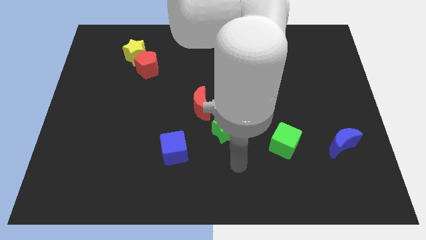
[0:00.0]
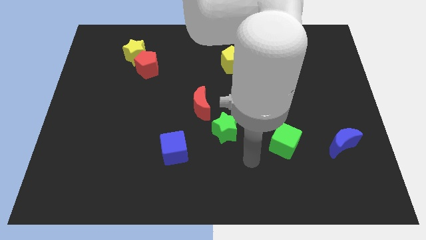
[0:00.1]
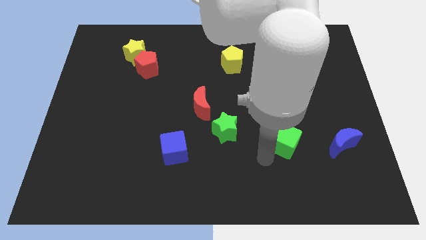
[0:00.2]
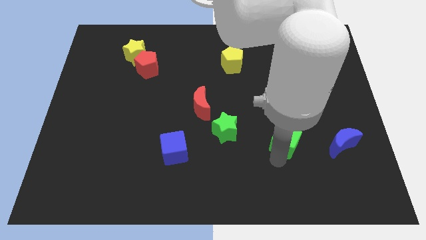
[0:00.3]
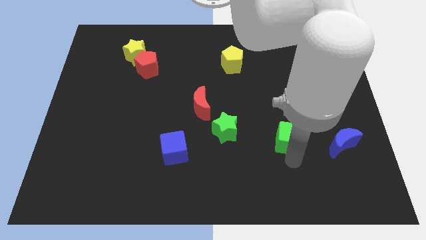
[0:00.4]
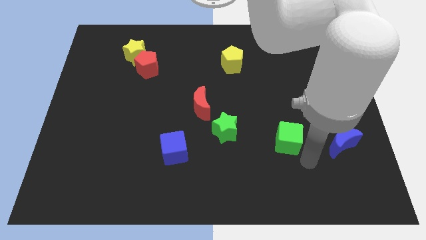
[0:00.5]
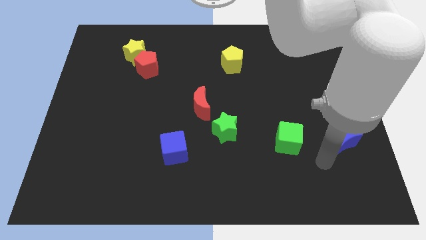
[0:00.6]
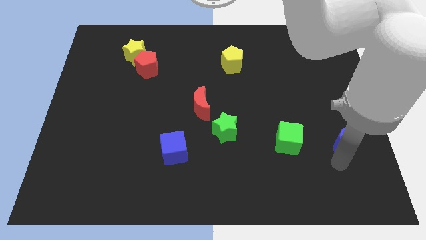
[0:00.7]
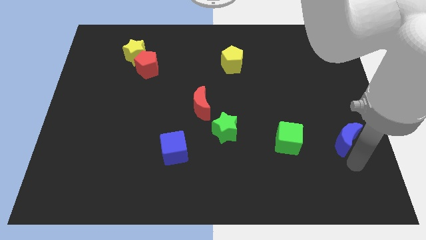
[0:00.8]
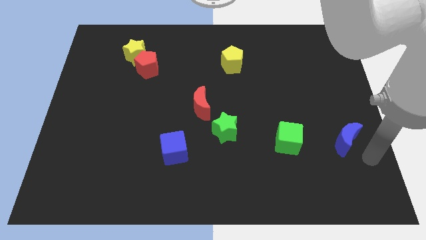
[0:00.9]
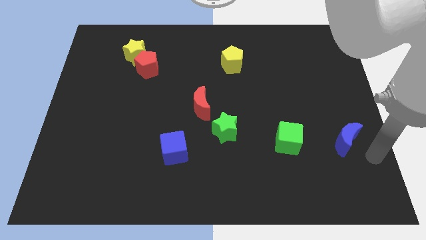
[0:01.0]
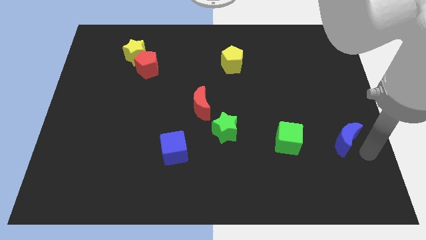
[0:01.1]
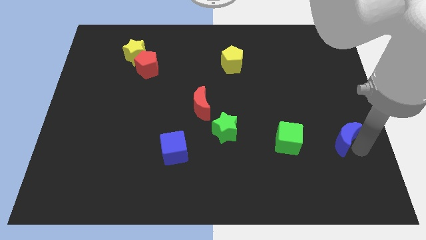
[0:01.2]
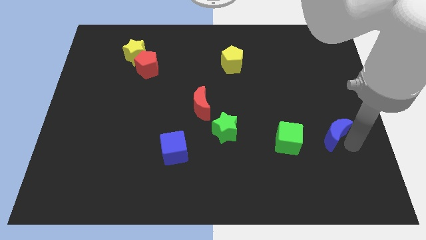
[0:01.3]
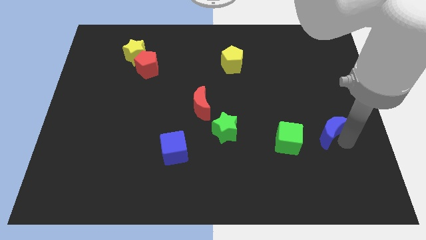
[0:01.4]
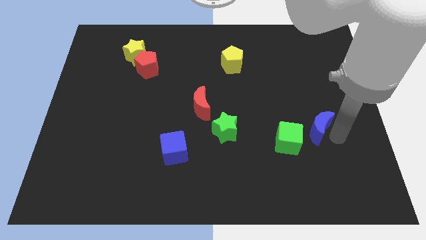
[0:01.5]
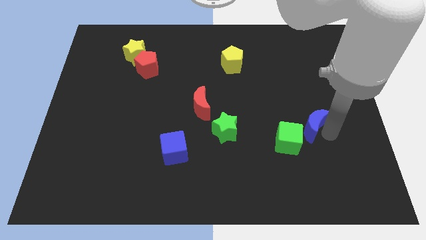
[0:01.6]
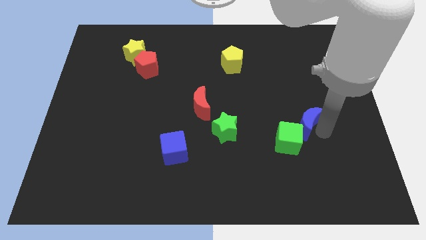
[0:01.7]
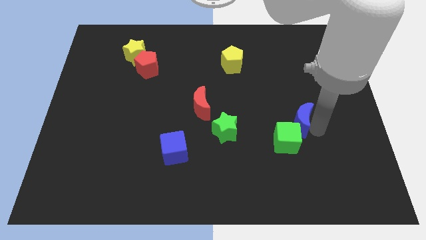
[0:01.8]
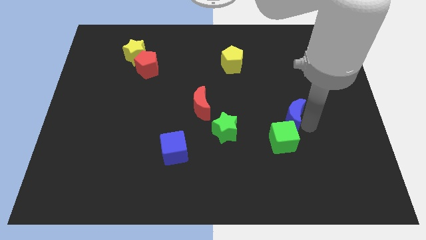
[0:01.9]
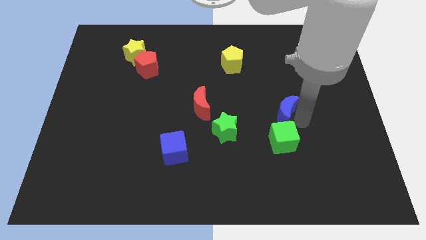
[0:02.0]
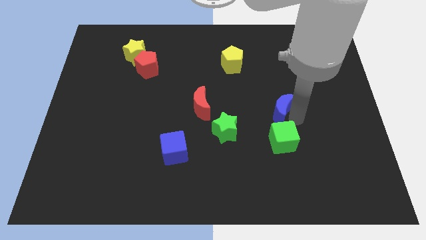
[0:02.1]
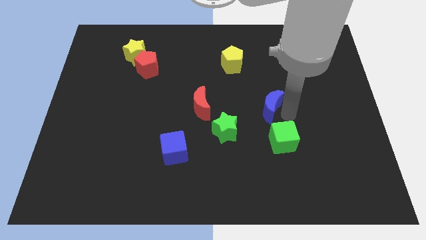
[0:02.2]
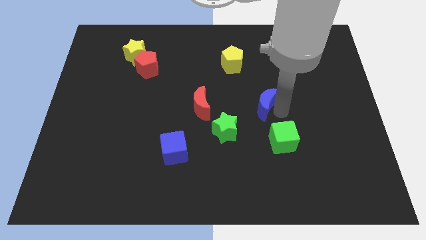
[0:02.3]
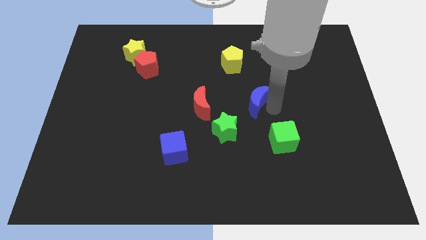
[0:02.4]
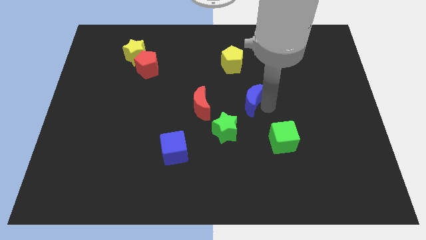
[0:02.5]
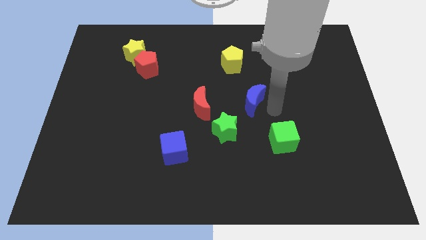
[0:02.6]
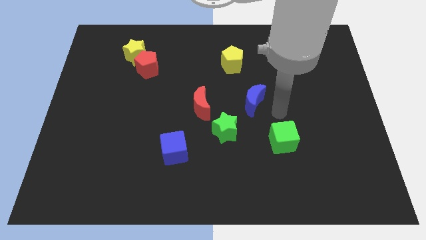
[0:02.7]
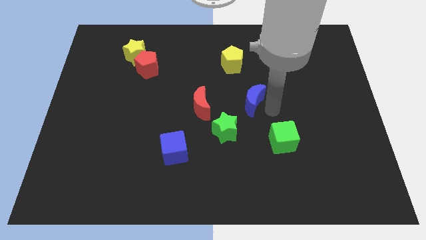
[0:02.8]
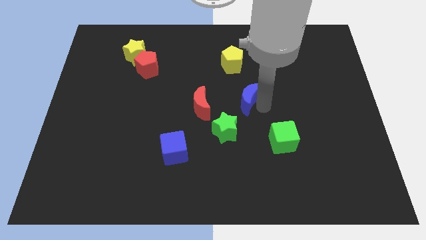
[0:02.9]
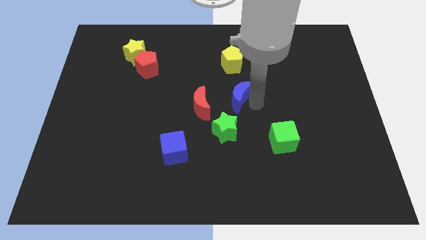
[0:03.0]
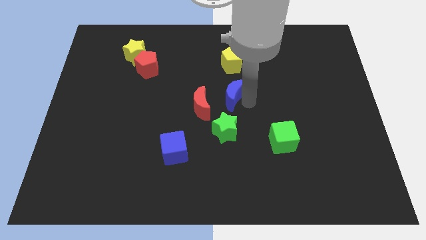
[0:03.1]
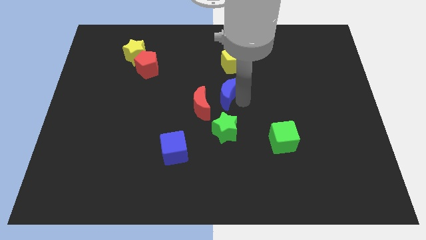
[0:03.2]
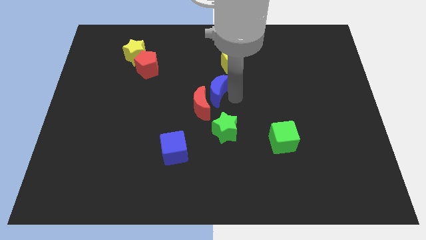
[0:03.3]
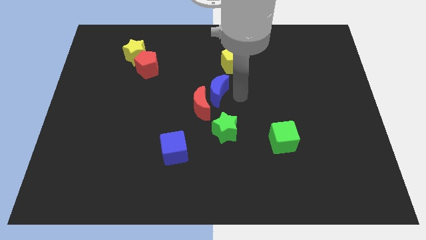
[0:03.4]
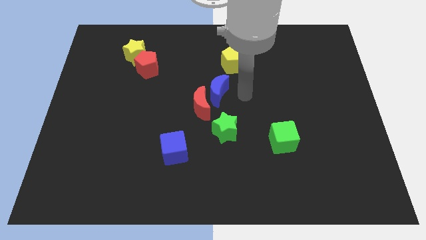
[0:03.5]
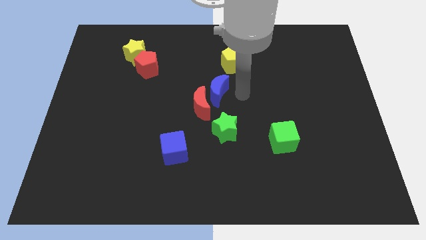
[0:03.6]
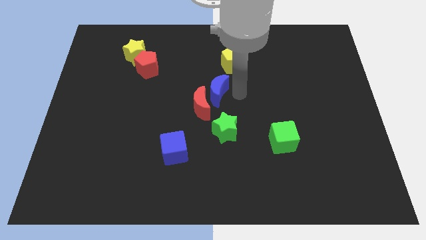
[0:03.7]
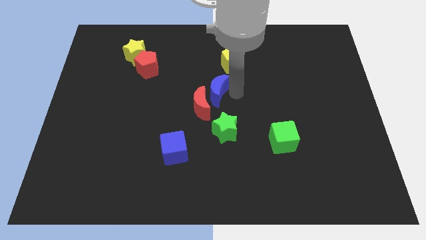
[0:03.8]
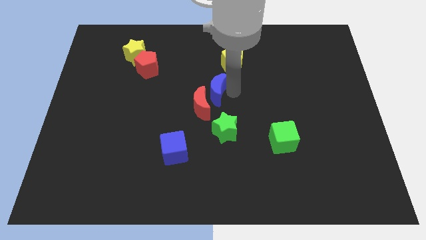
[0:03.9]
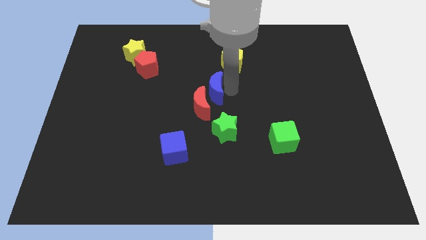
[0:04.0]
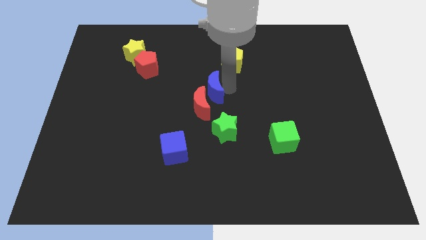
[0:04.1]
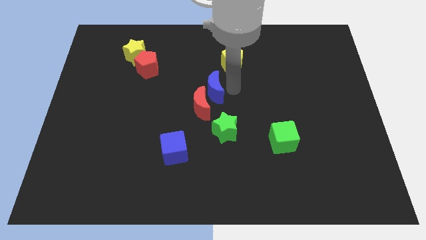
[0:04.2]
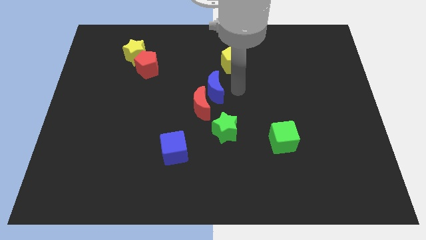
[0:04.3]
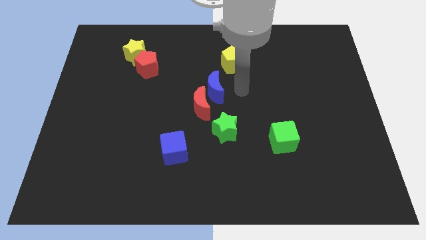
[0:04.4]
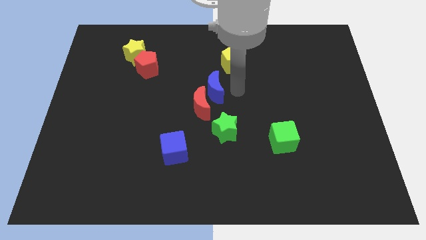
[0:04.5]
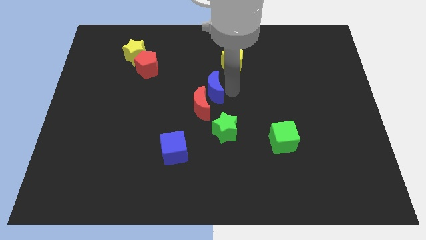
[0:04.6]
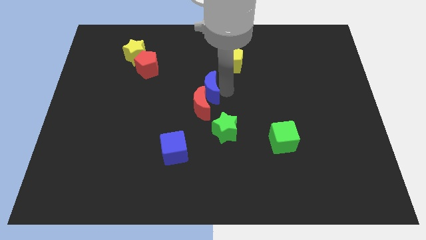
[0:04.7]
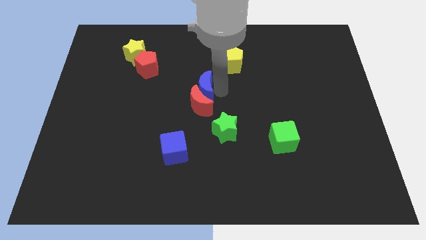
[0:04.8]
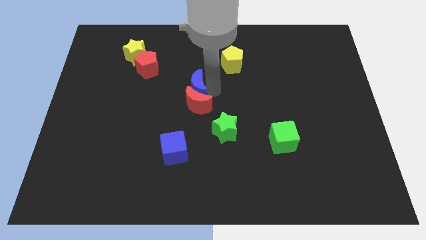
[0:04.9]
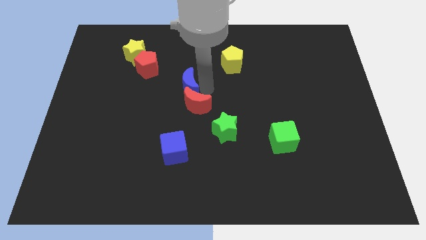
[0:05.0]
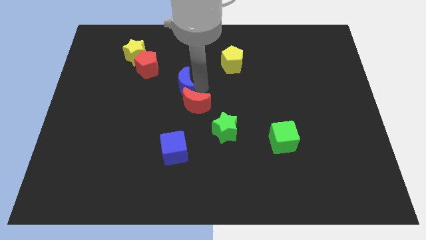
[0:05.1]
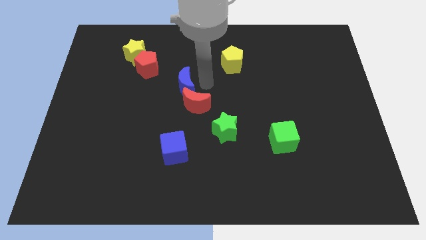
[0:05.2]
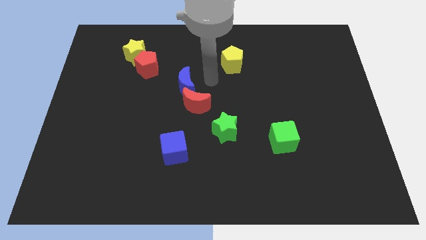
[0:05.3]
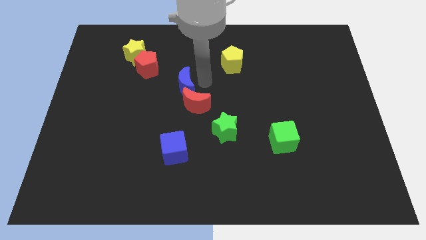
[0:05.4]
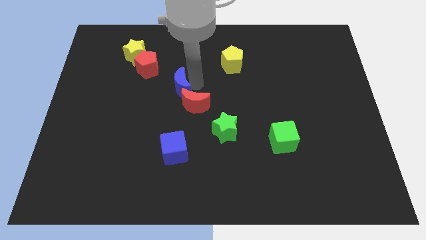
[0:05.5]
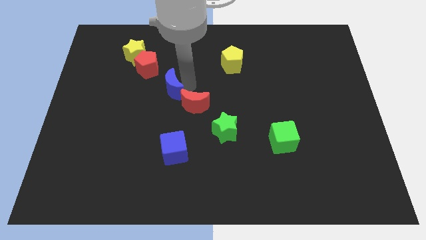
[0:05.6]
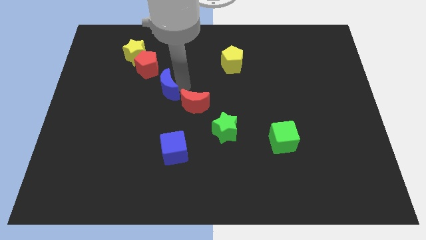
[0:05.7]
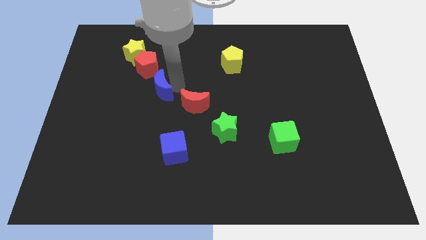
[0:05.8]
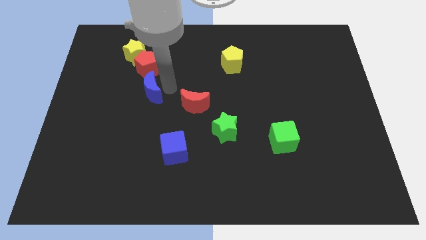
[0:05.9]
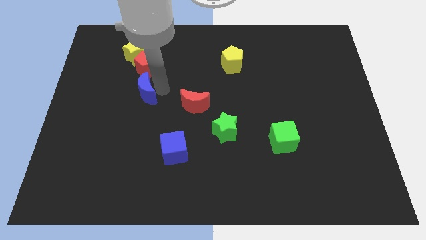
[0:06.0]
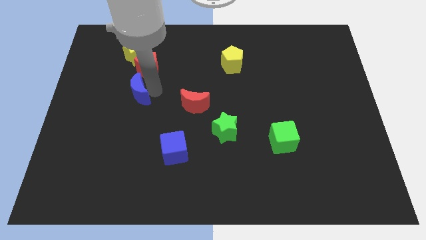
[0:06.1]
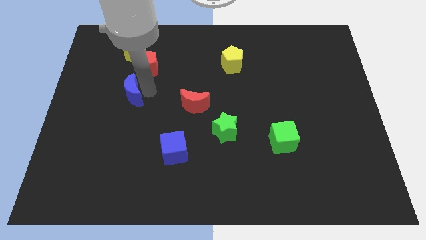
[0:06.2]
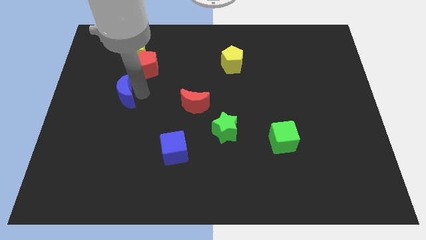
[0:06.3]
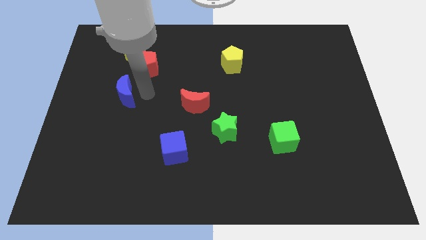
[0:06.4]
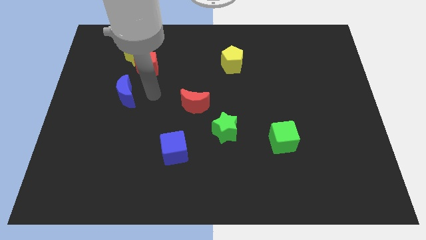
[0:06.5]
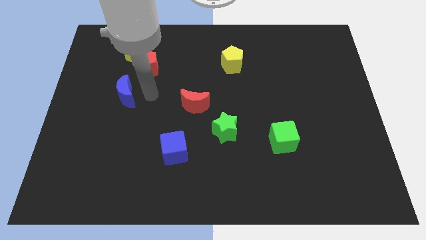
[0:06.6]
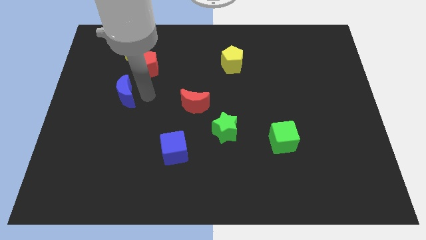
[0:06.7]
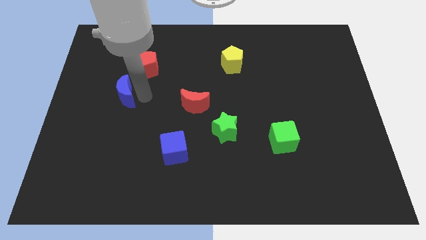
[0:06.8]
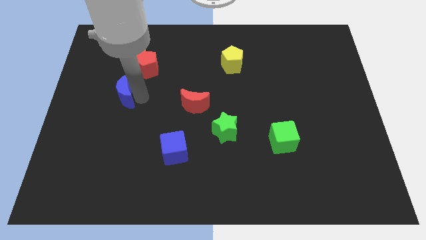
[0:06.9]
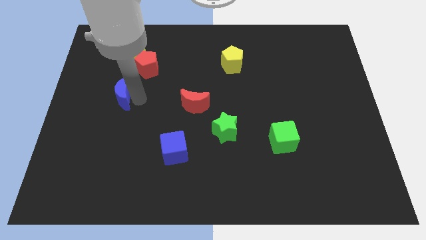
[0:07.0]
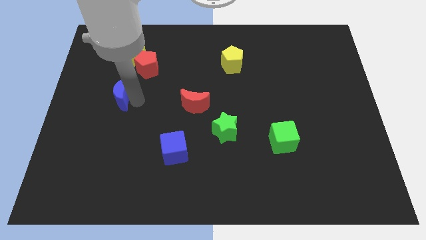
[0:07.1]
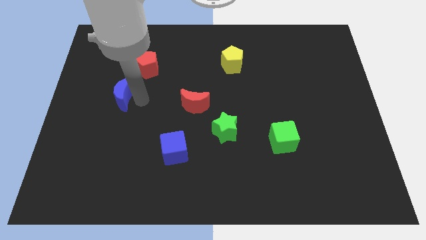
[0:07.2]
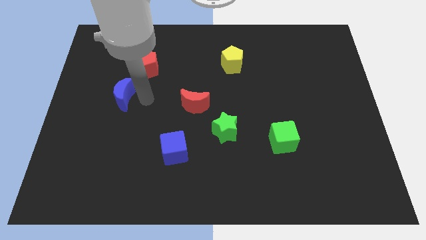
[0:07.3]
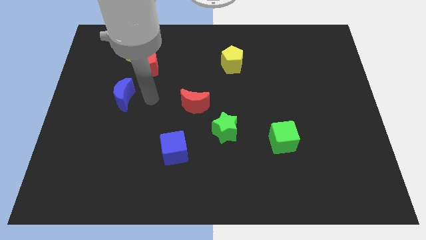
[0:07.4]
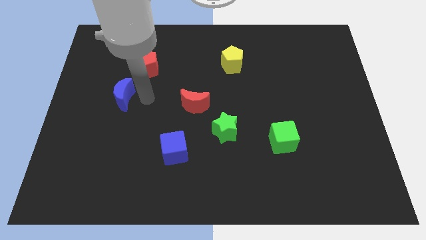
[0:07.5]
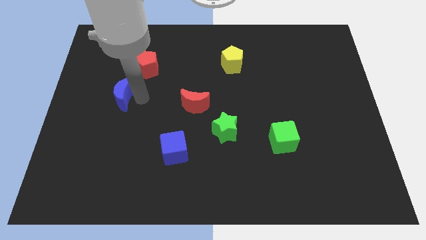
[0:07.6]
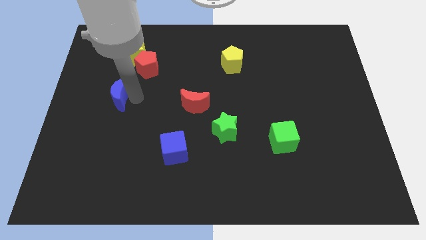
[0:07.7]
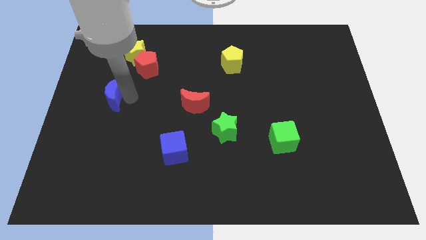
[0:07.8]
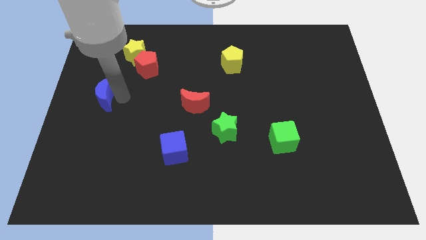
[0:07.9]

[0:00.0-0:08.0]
put the blue moon to the left side of the board
